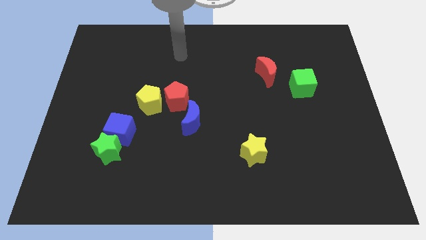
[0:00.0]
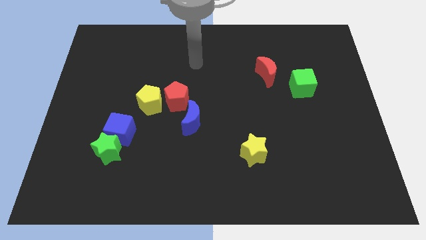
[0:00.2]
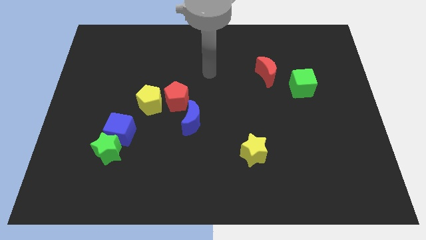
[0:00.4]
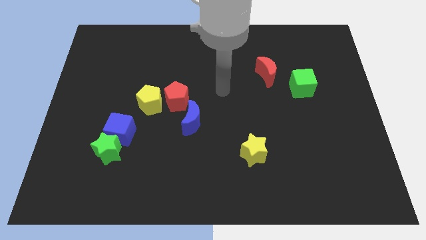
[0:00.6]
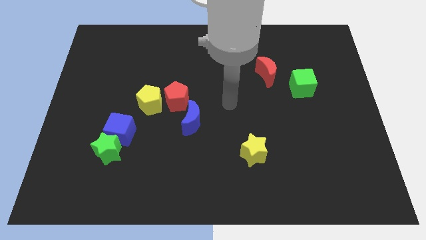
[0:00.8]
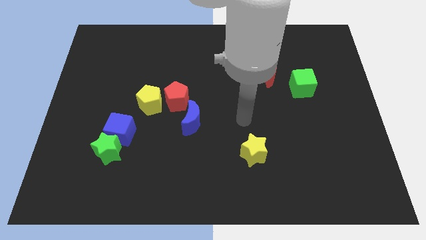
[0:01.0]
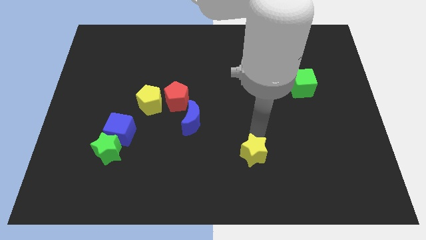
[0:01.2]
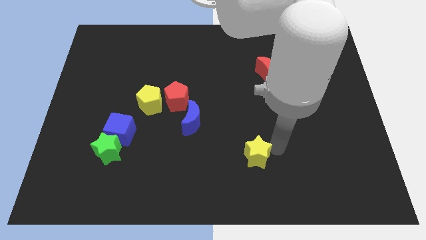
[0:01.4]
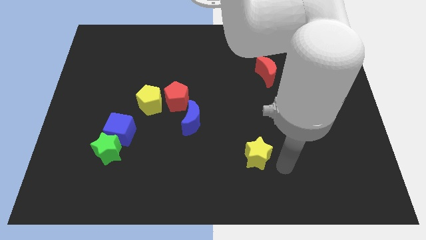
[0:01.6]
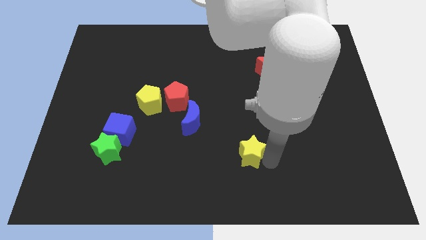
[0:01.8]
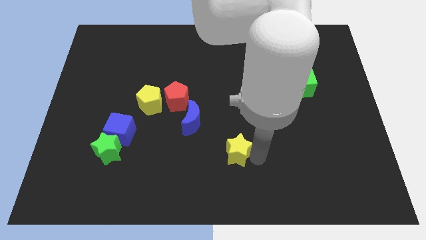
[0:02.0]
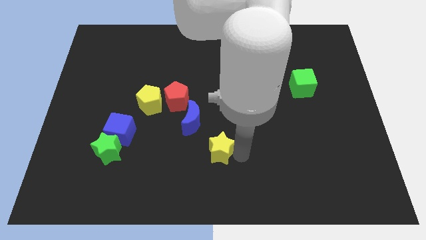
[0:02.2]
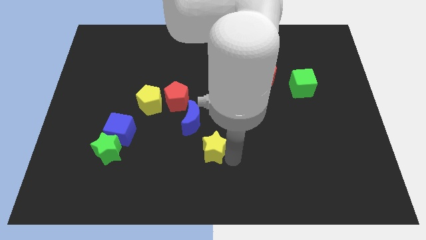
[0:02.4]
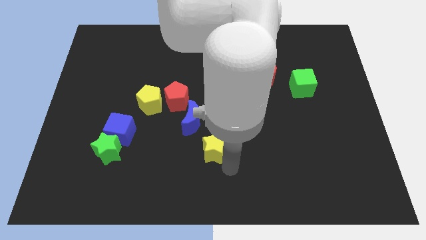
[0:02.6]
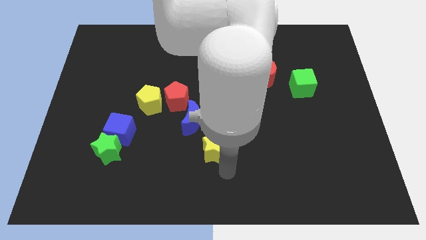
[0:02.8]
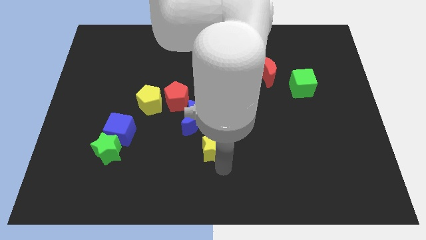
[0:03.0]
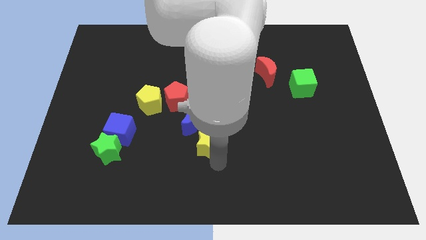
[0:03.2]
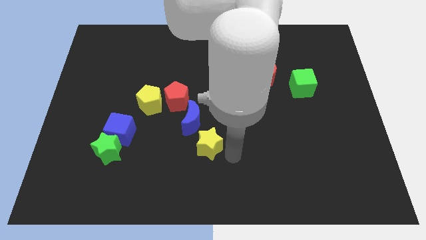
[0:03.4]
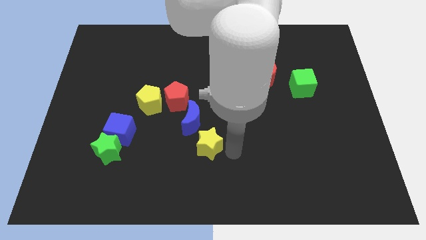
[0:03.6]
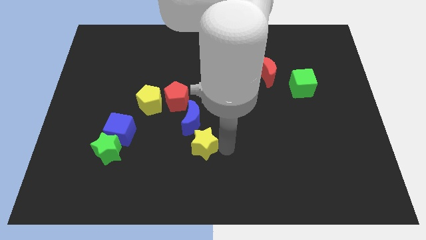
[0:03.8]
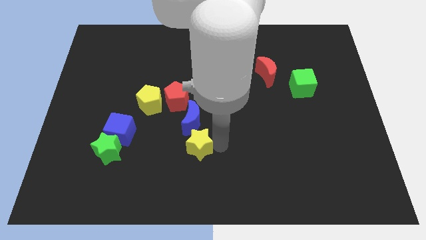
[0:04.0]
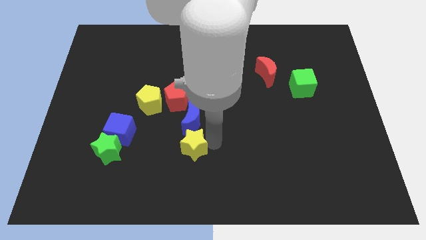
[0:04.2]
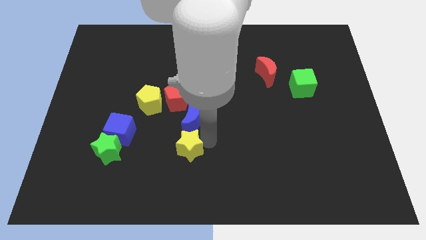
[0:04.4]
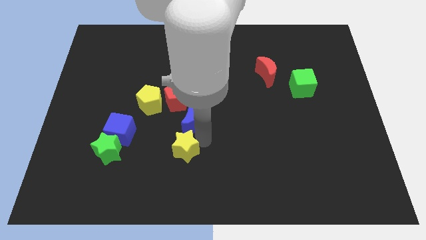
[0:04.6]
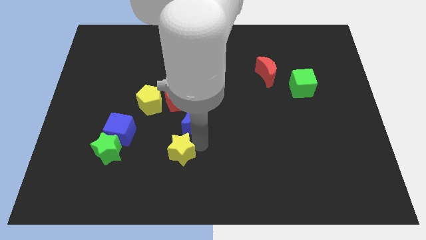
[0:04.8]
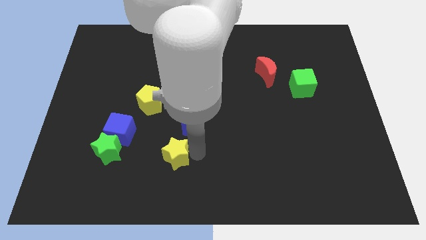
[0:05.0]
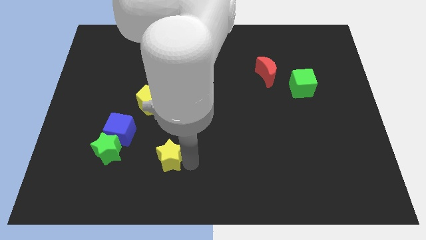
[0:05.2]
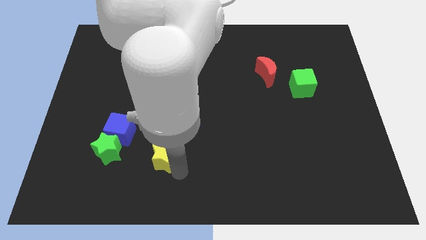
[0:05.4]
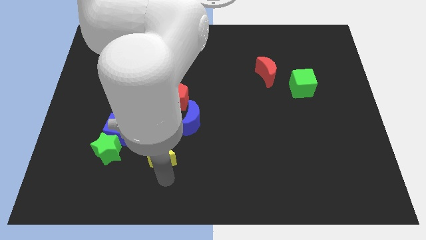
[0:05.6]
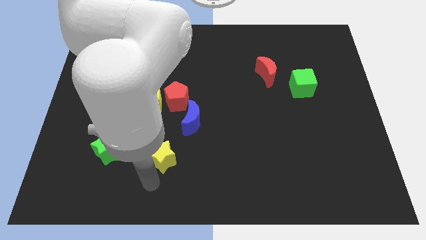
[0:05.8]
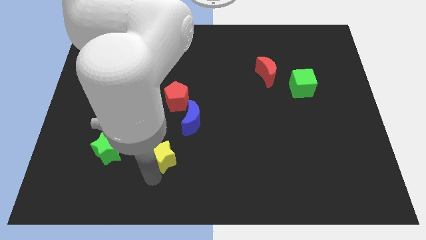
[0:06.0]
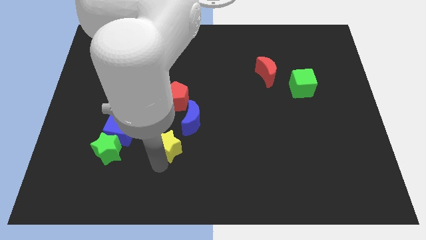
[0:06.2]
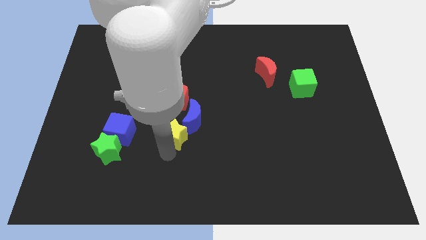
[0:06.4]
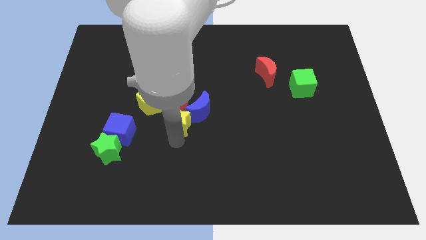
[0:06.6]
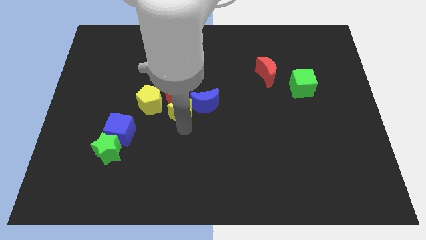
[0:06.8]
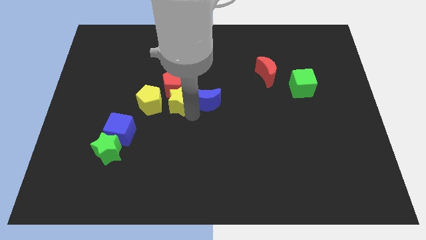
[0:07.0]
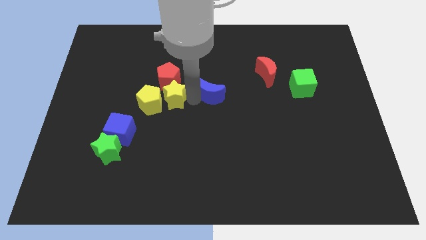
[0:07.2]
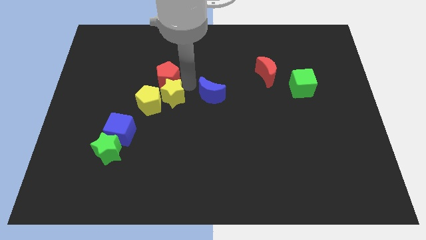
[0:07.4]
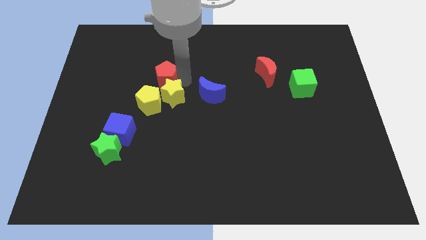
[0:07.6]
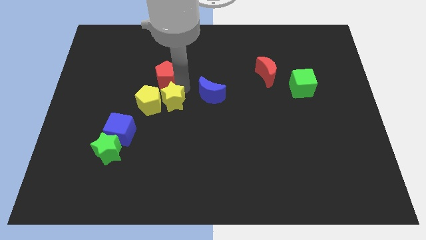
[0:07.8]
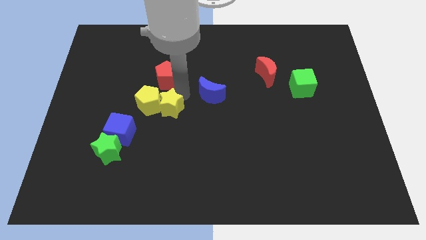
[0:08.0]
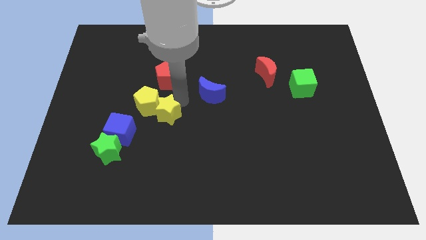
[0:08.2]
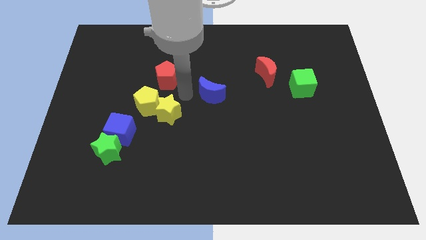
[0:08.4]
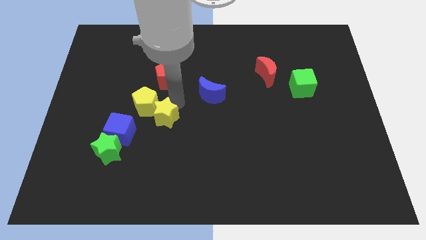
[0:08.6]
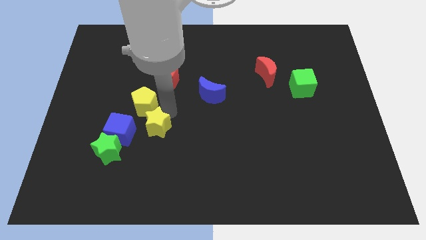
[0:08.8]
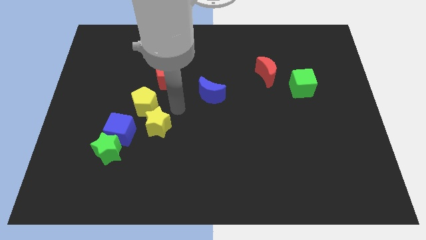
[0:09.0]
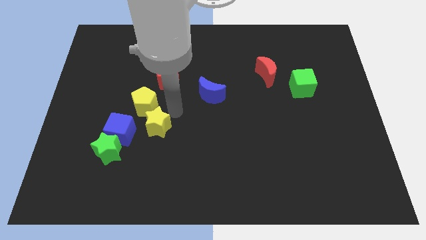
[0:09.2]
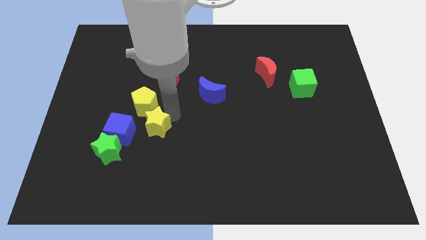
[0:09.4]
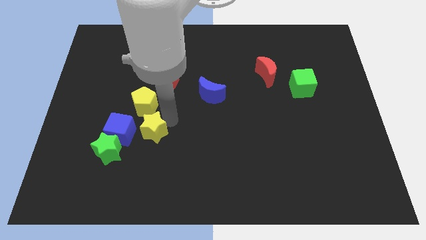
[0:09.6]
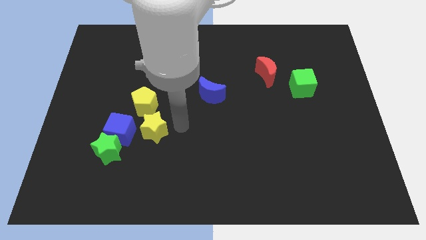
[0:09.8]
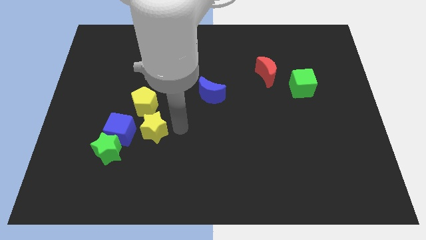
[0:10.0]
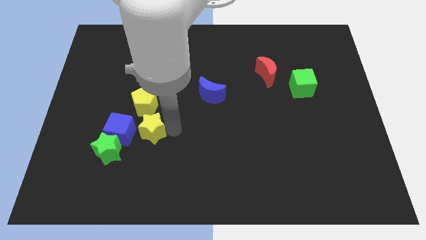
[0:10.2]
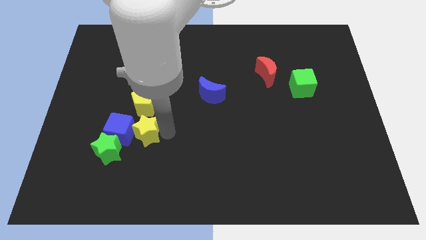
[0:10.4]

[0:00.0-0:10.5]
slide the yellow star to the blue cube

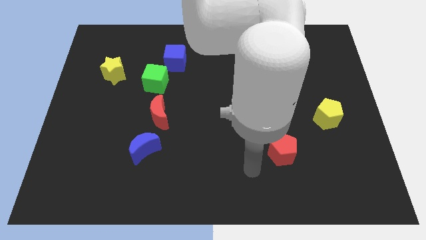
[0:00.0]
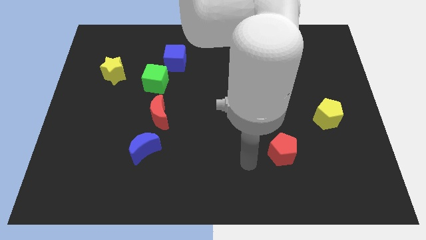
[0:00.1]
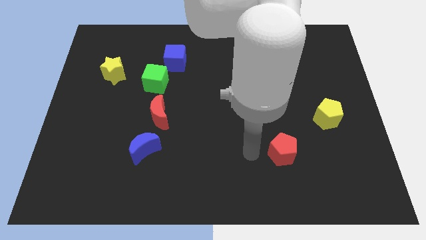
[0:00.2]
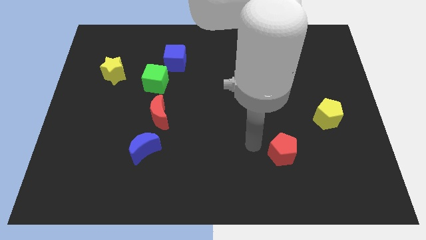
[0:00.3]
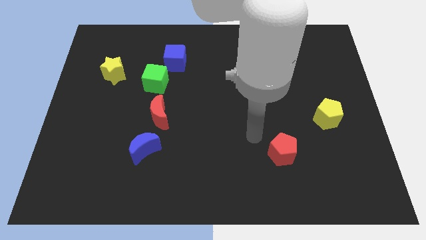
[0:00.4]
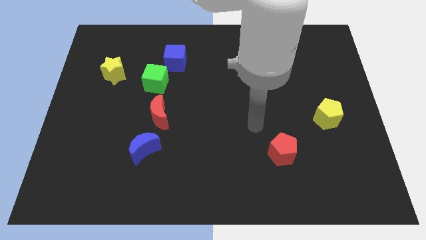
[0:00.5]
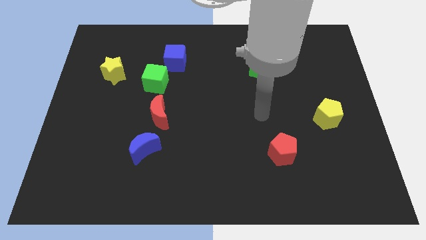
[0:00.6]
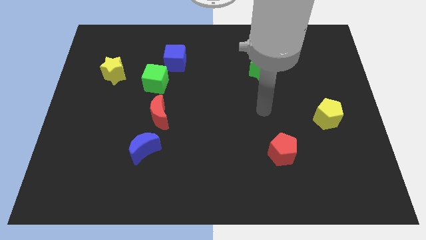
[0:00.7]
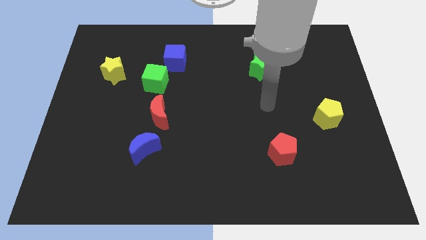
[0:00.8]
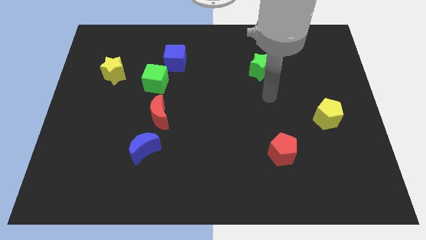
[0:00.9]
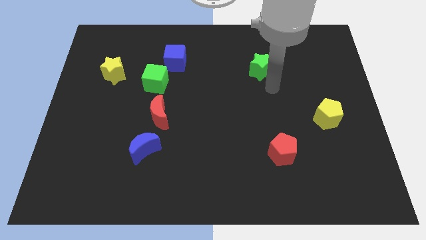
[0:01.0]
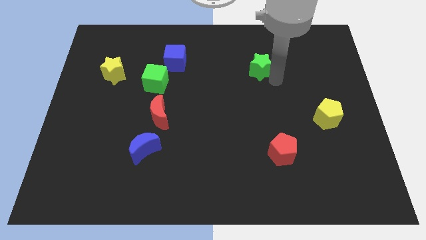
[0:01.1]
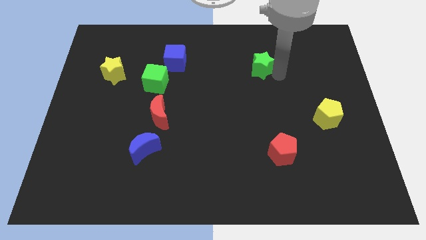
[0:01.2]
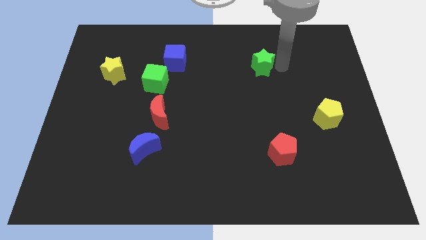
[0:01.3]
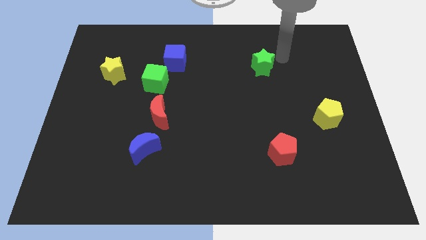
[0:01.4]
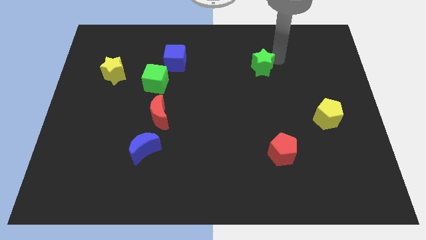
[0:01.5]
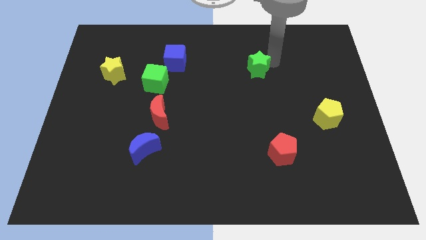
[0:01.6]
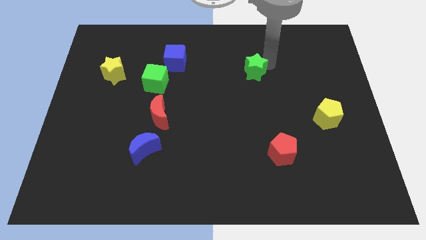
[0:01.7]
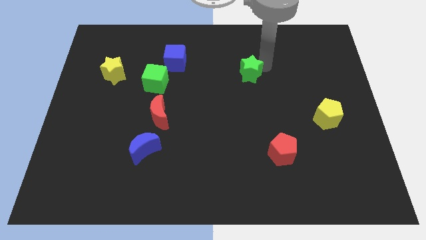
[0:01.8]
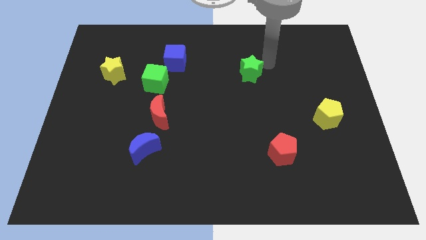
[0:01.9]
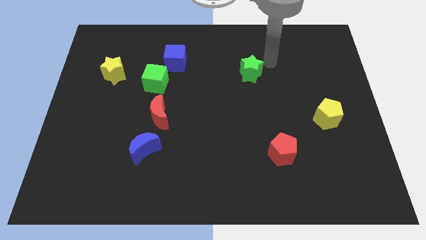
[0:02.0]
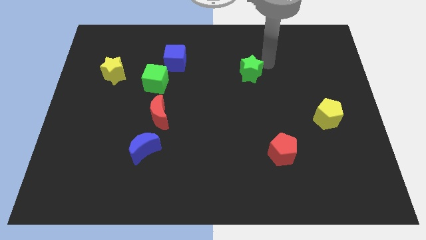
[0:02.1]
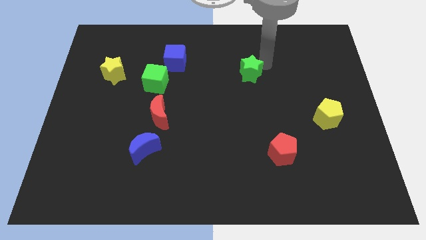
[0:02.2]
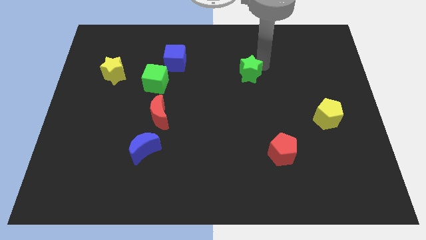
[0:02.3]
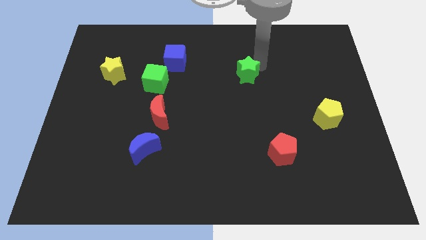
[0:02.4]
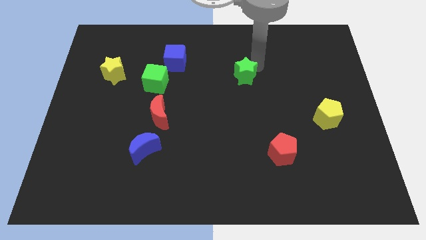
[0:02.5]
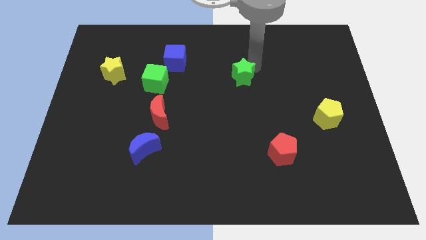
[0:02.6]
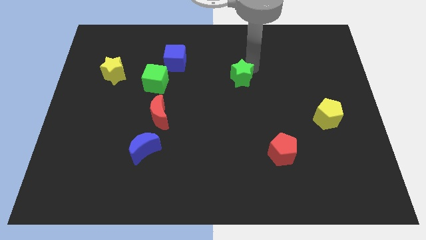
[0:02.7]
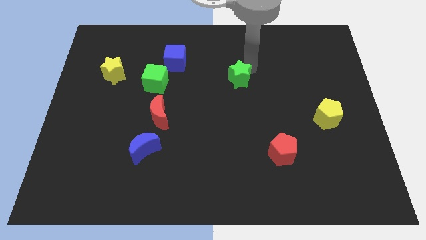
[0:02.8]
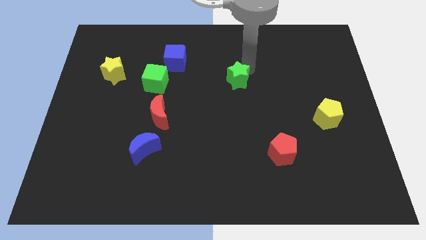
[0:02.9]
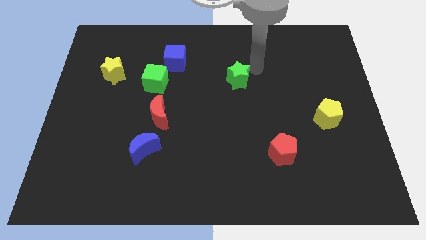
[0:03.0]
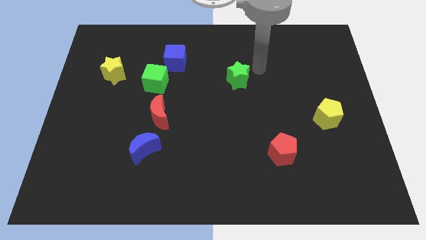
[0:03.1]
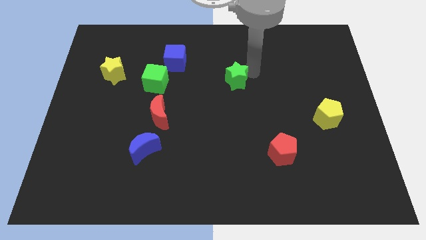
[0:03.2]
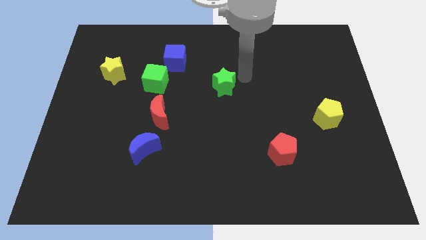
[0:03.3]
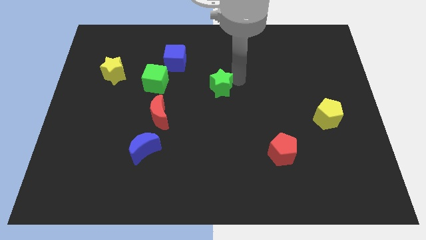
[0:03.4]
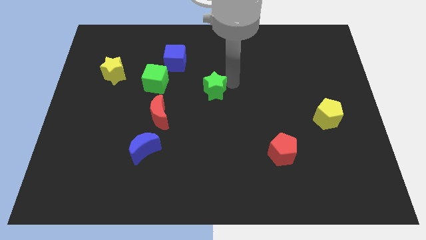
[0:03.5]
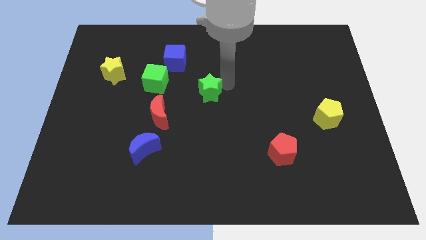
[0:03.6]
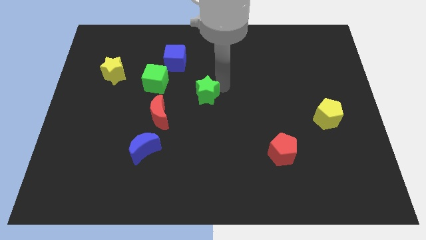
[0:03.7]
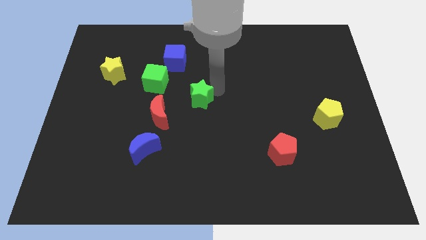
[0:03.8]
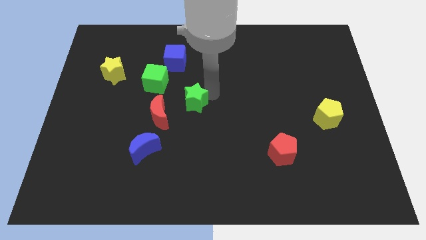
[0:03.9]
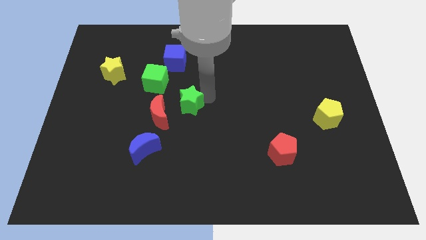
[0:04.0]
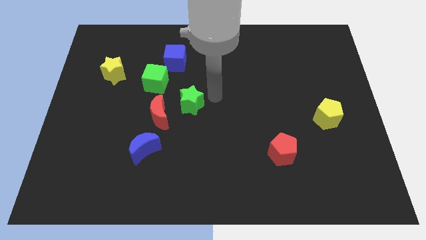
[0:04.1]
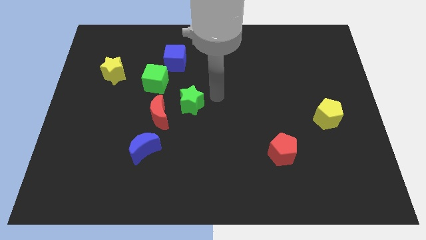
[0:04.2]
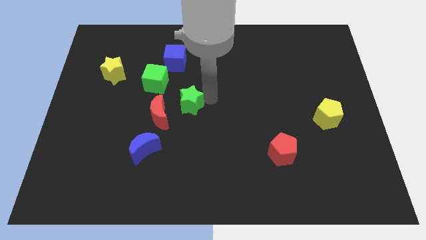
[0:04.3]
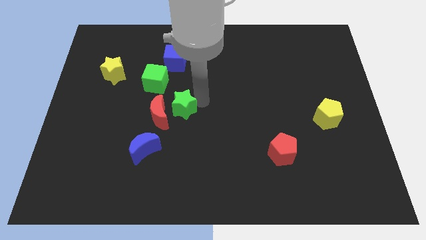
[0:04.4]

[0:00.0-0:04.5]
push the green star close to the red moon
